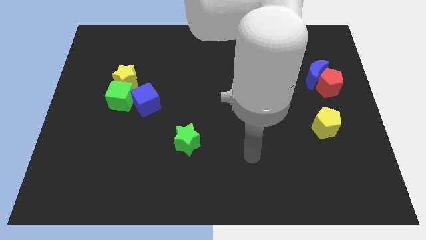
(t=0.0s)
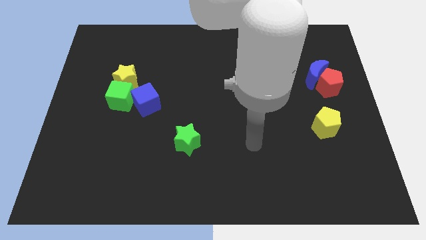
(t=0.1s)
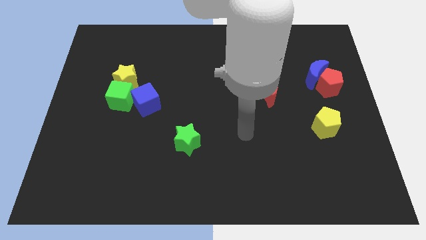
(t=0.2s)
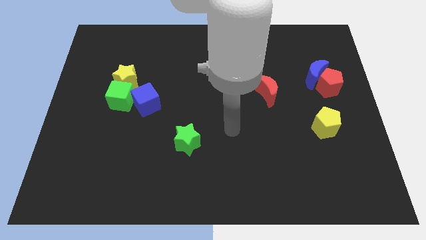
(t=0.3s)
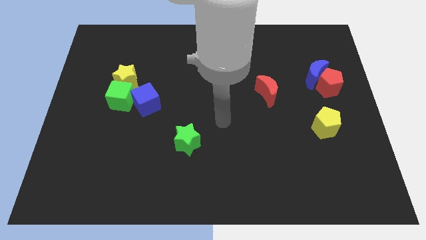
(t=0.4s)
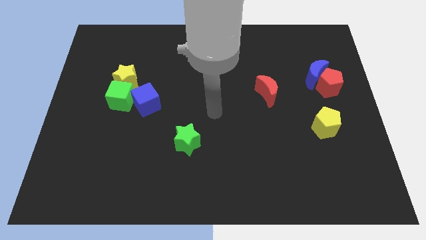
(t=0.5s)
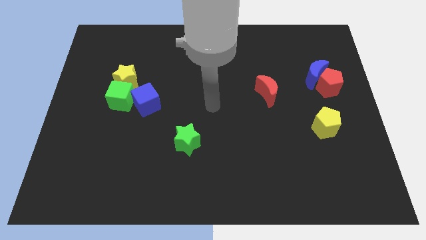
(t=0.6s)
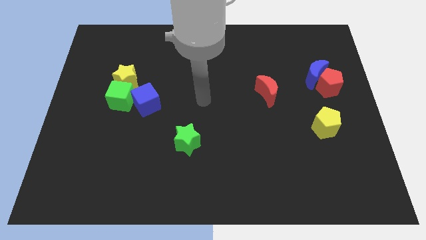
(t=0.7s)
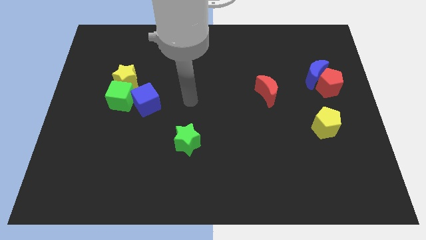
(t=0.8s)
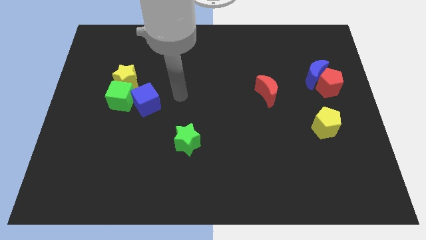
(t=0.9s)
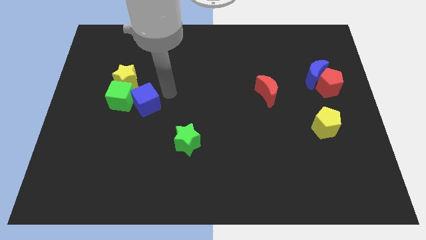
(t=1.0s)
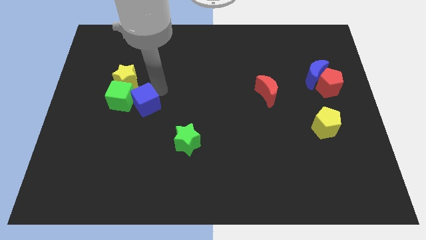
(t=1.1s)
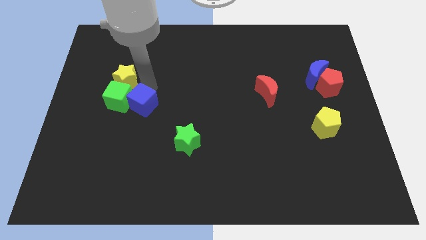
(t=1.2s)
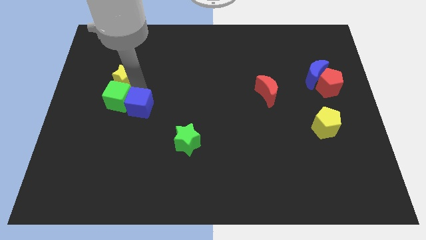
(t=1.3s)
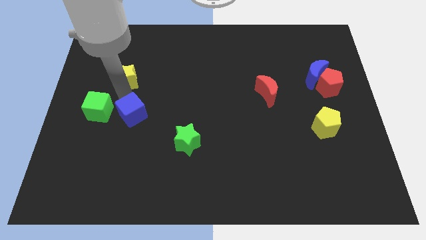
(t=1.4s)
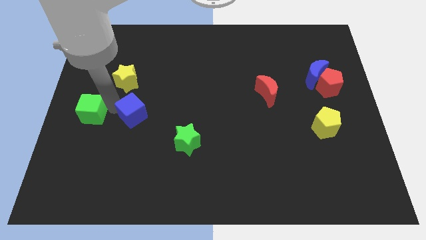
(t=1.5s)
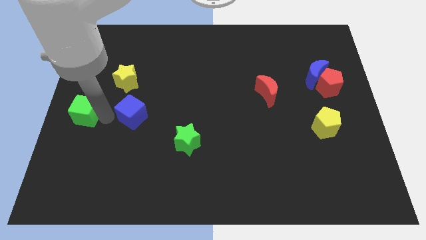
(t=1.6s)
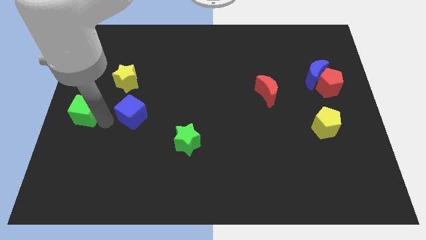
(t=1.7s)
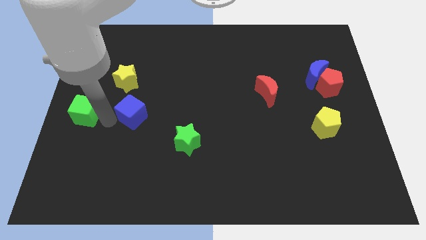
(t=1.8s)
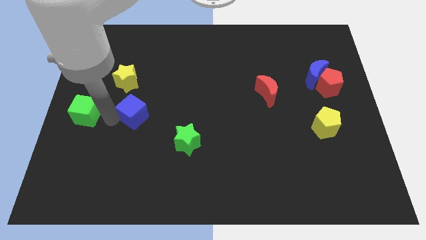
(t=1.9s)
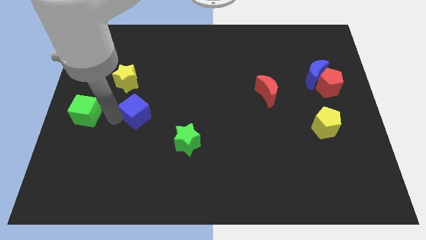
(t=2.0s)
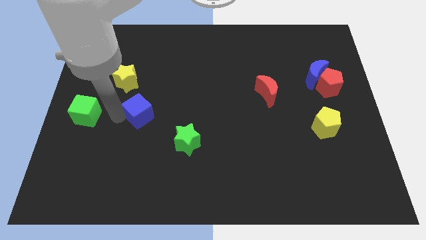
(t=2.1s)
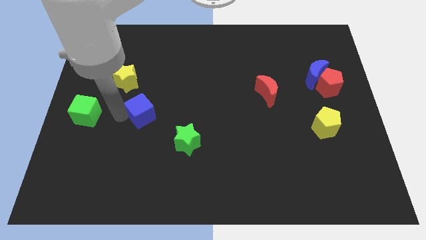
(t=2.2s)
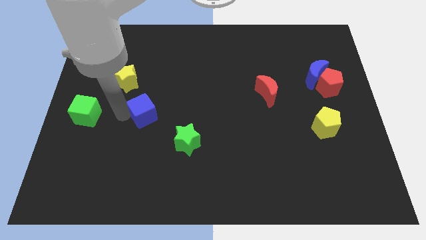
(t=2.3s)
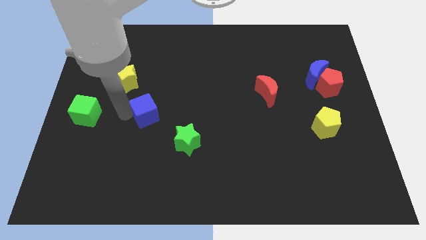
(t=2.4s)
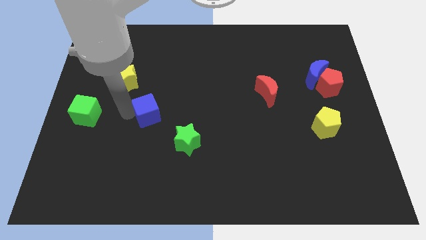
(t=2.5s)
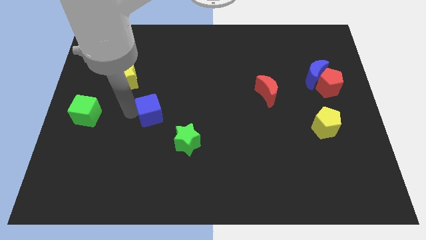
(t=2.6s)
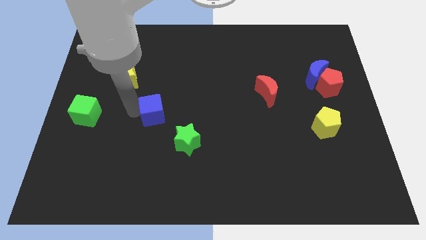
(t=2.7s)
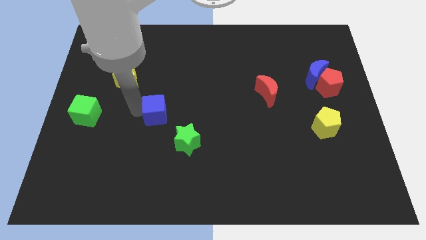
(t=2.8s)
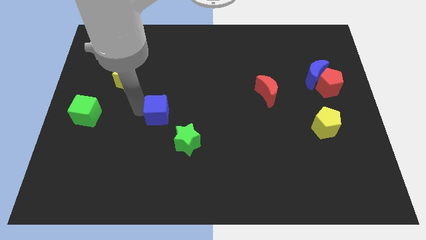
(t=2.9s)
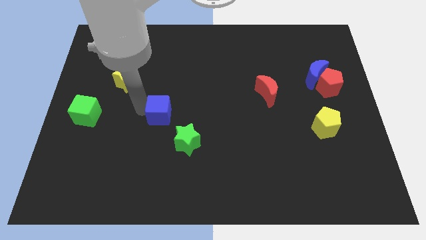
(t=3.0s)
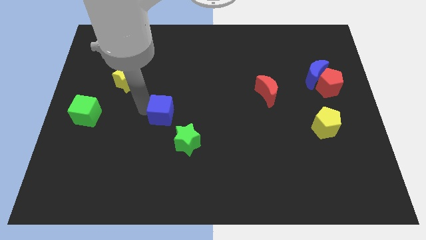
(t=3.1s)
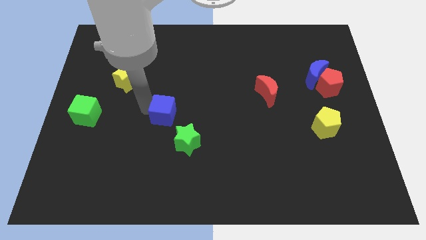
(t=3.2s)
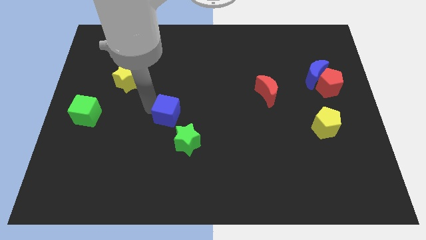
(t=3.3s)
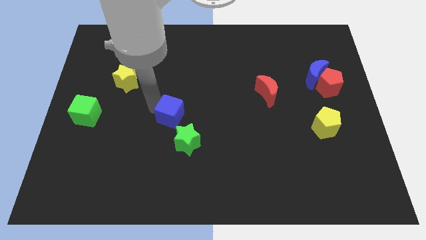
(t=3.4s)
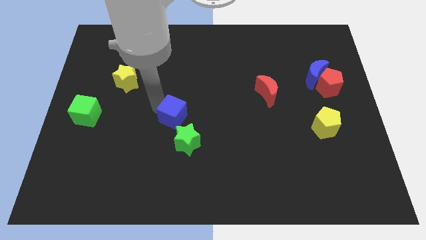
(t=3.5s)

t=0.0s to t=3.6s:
slide the blue cube diagonally down and to the right somewhat

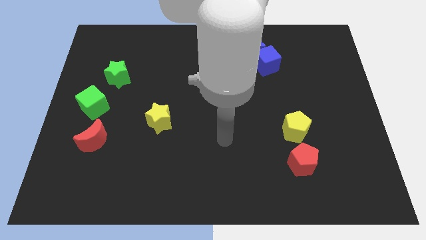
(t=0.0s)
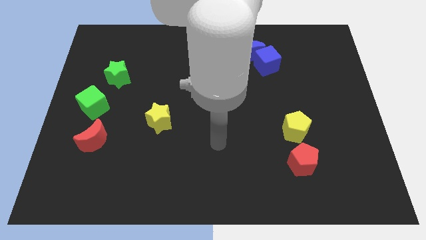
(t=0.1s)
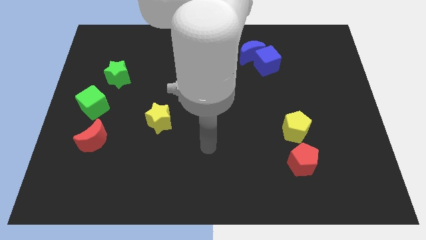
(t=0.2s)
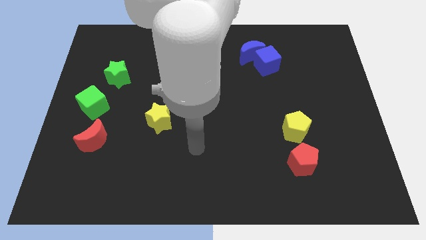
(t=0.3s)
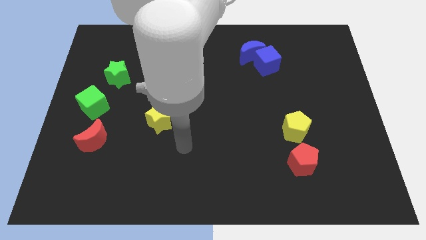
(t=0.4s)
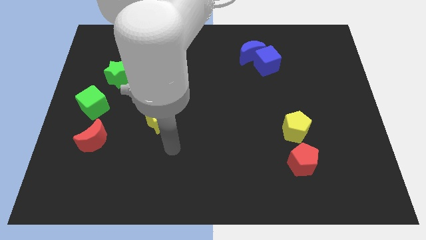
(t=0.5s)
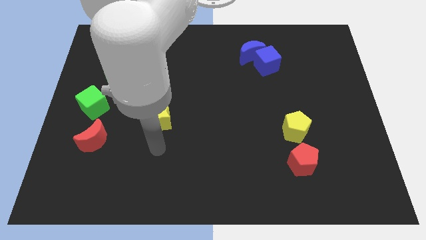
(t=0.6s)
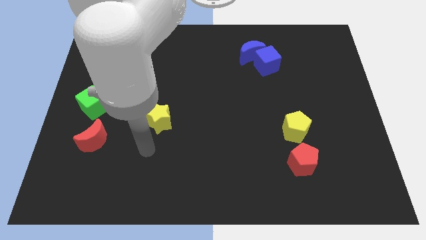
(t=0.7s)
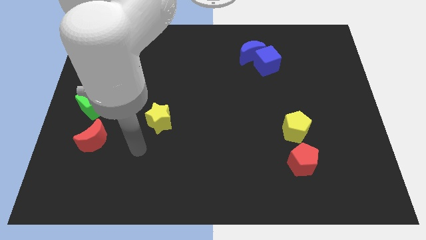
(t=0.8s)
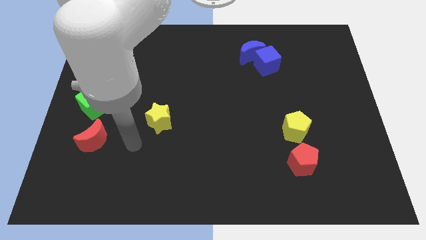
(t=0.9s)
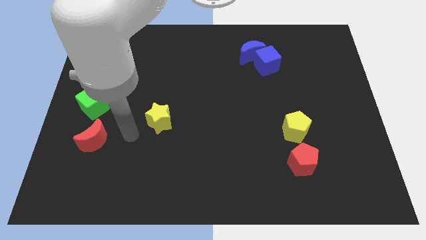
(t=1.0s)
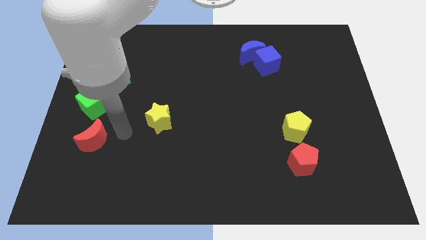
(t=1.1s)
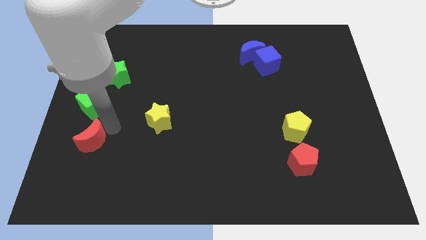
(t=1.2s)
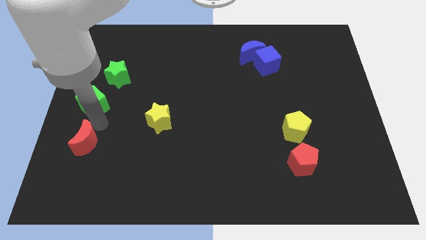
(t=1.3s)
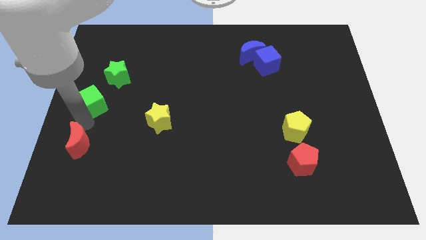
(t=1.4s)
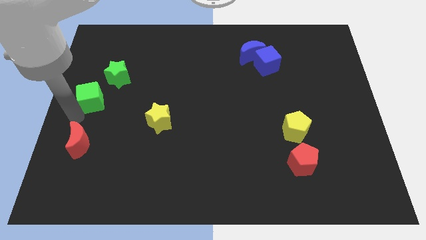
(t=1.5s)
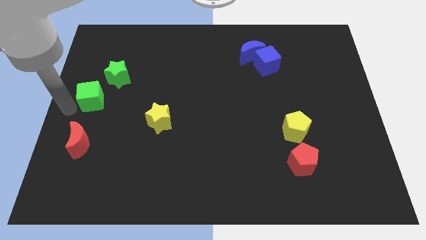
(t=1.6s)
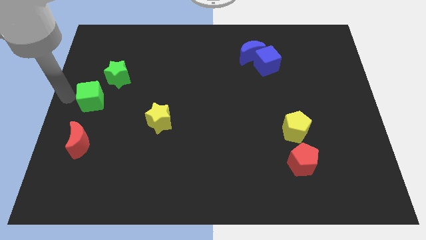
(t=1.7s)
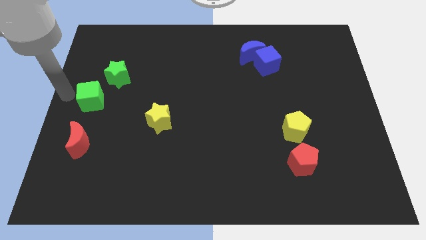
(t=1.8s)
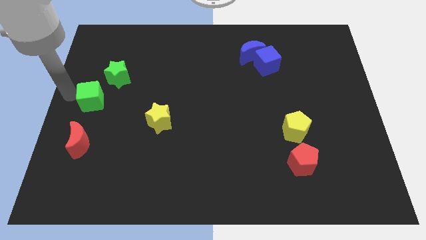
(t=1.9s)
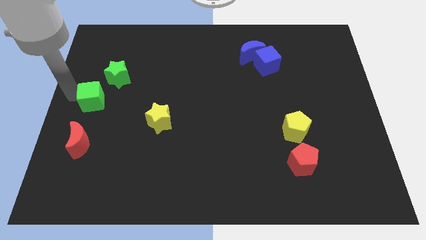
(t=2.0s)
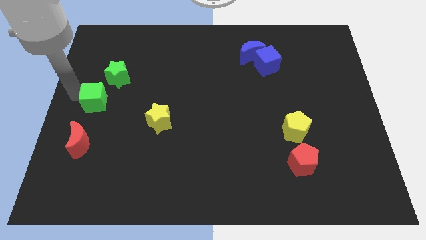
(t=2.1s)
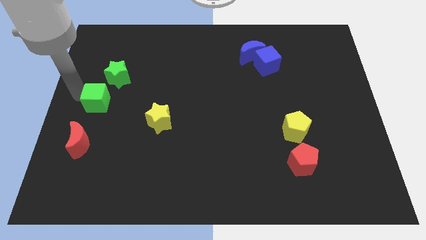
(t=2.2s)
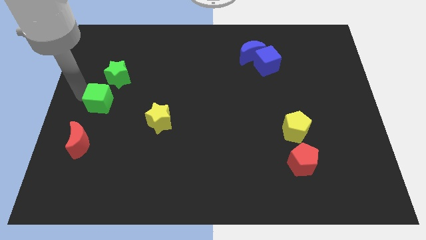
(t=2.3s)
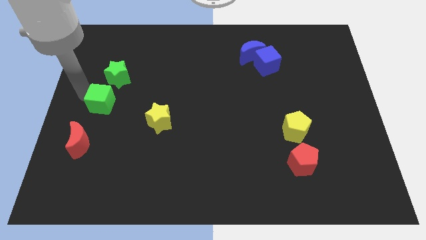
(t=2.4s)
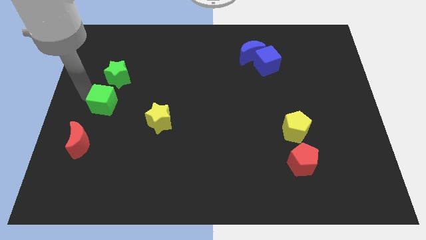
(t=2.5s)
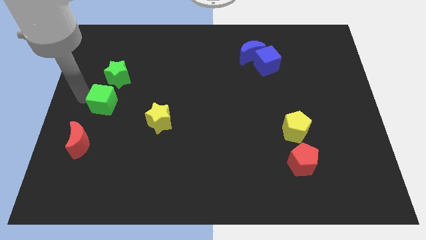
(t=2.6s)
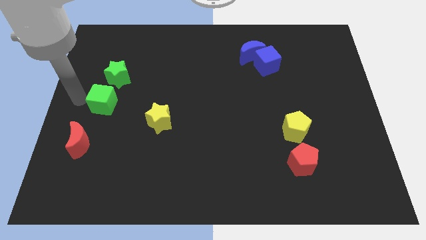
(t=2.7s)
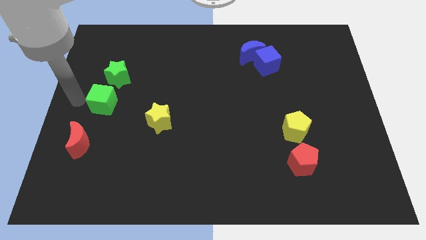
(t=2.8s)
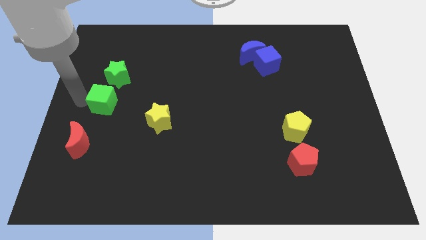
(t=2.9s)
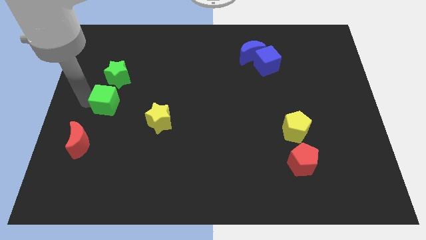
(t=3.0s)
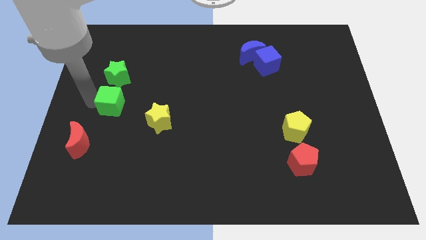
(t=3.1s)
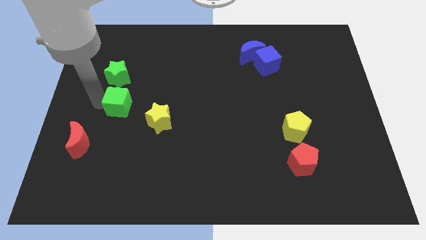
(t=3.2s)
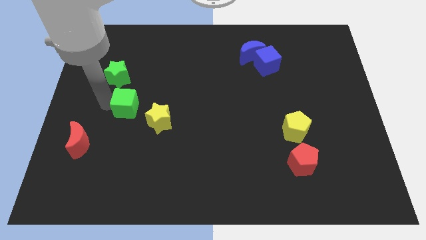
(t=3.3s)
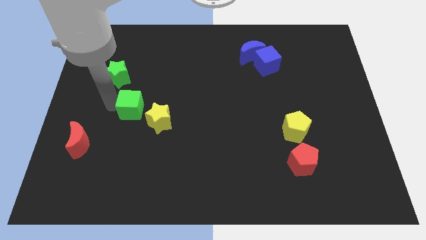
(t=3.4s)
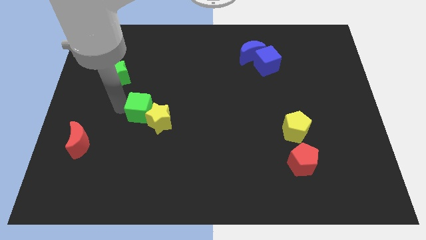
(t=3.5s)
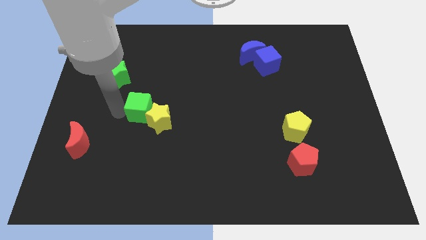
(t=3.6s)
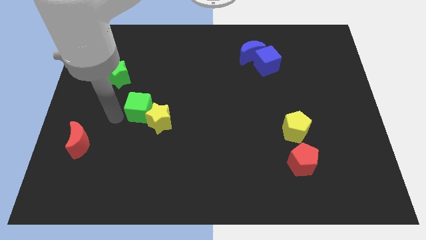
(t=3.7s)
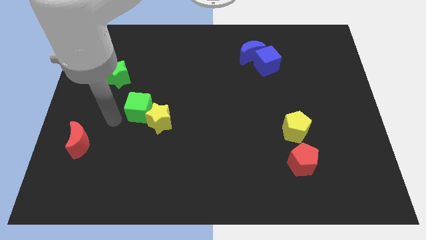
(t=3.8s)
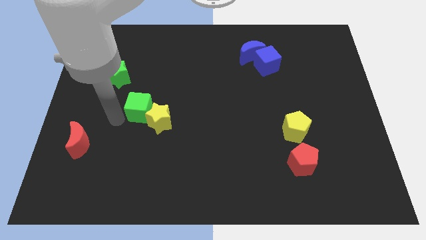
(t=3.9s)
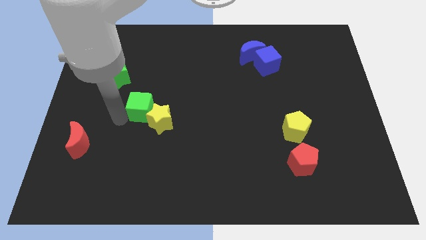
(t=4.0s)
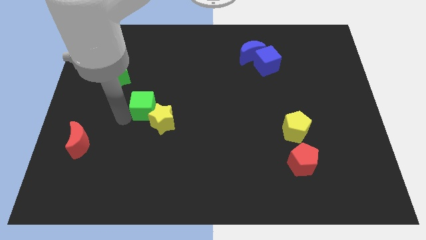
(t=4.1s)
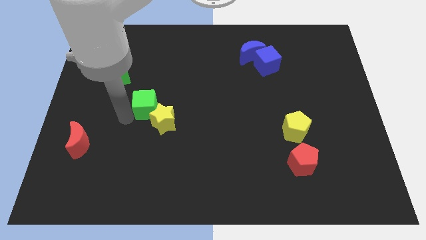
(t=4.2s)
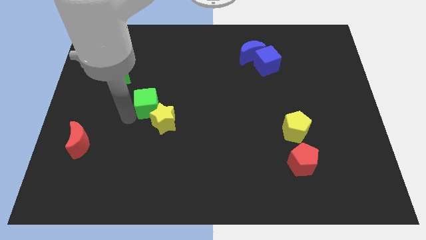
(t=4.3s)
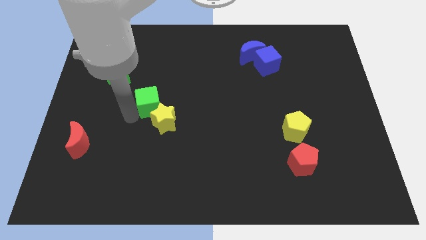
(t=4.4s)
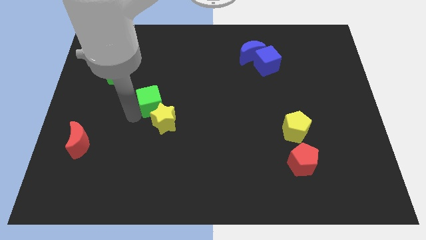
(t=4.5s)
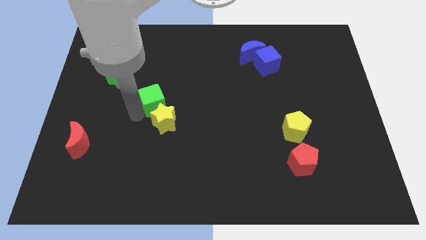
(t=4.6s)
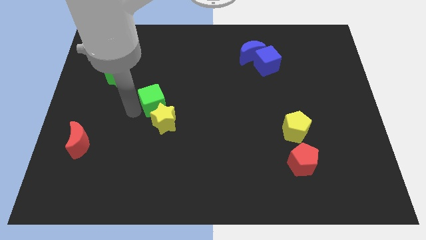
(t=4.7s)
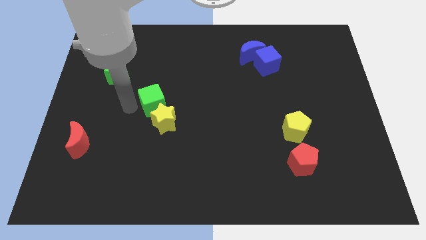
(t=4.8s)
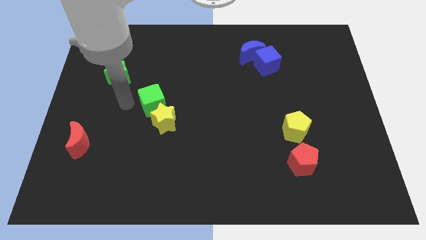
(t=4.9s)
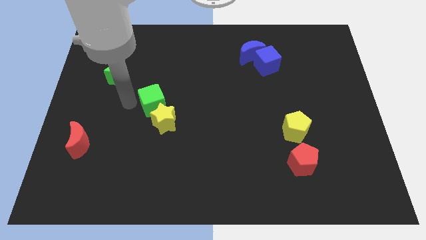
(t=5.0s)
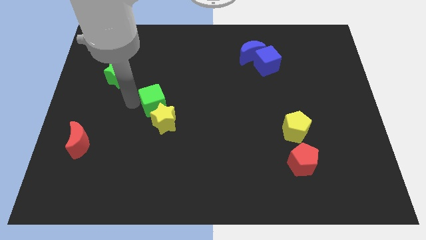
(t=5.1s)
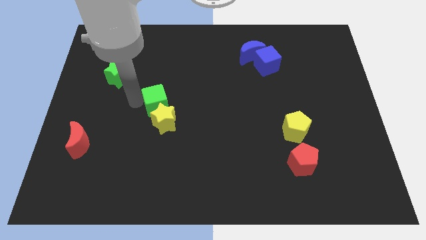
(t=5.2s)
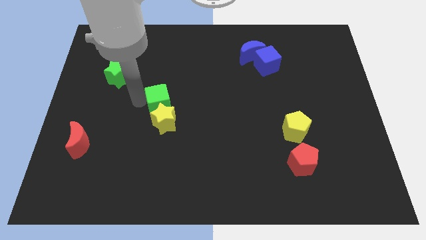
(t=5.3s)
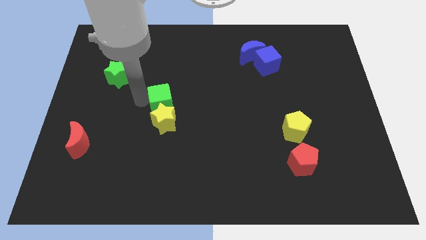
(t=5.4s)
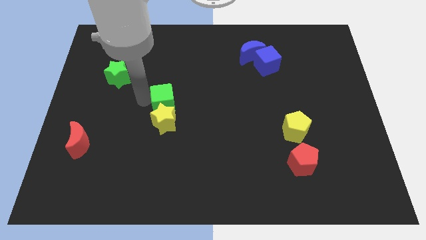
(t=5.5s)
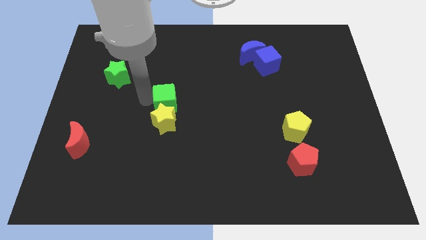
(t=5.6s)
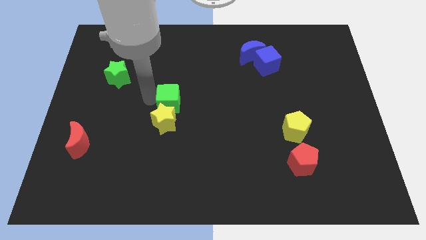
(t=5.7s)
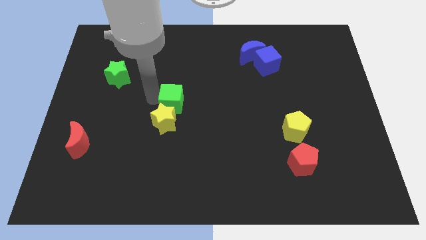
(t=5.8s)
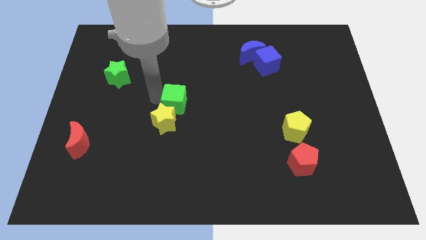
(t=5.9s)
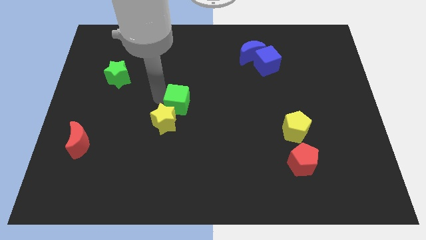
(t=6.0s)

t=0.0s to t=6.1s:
move the green cube to the right
